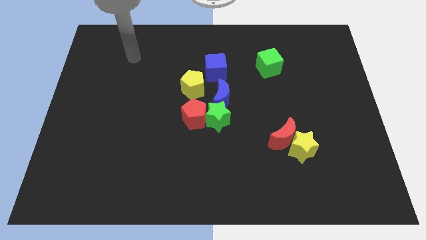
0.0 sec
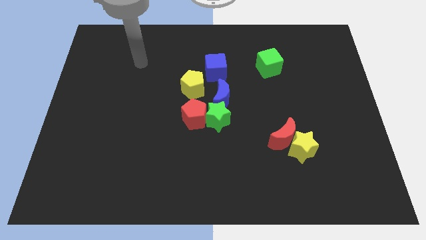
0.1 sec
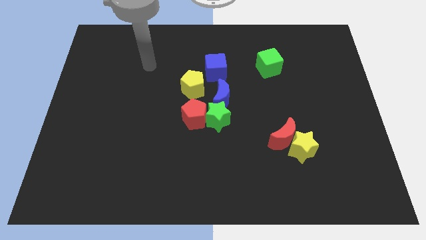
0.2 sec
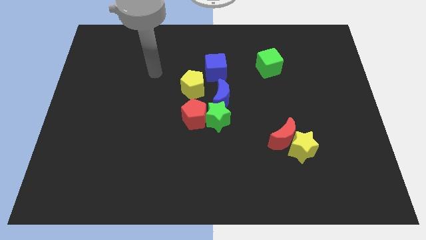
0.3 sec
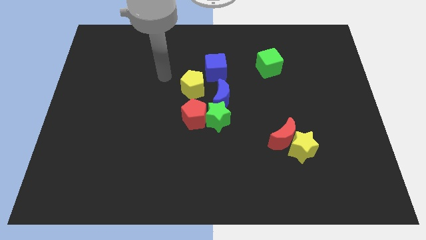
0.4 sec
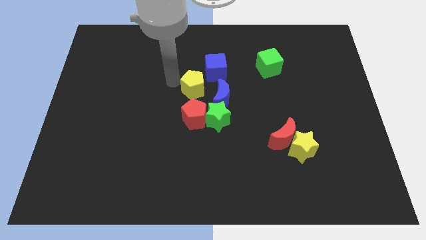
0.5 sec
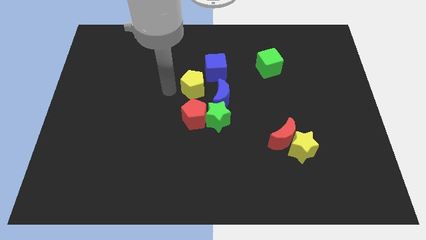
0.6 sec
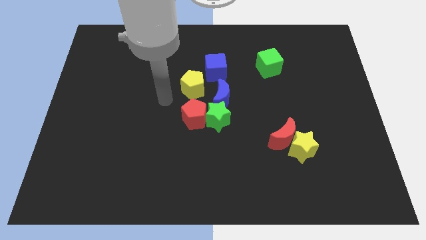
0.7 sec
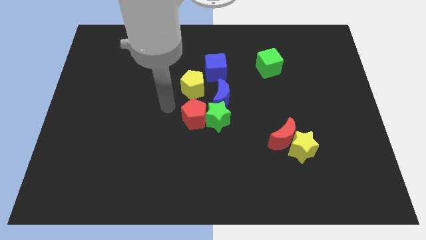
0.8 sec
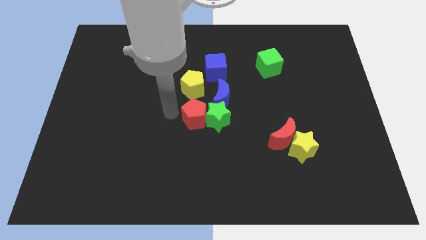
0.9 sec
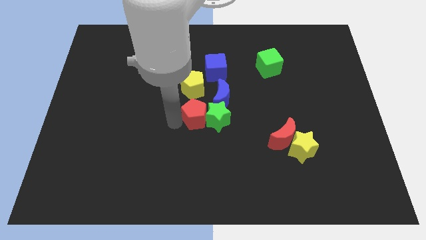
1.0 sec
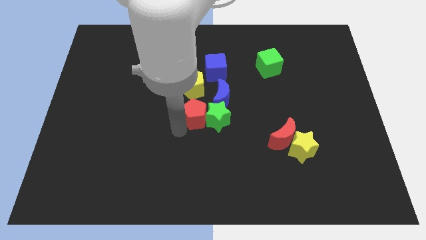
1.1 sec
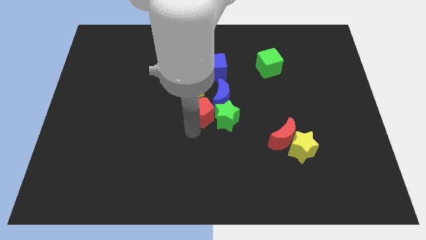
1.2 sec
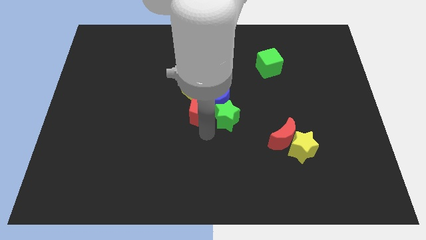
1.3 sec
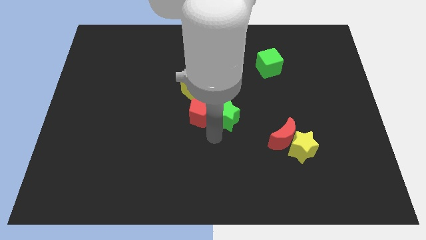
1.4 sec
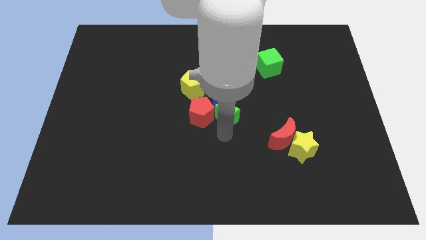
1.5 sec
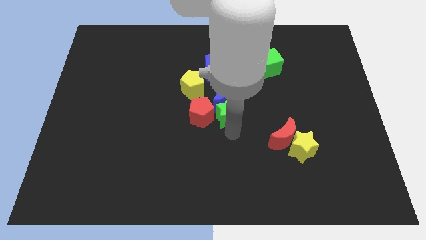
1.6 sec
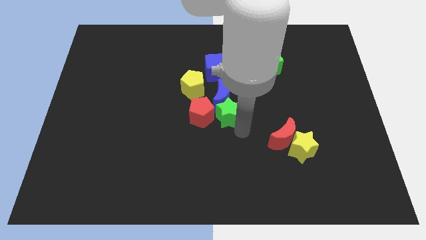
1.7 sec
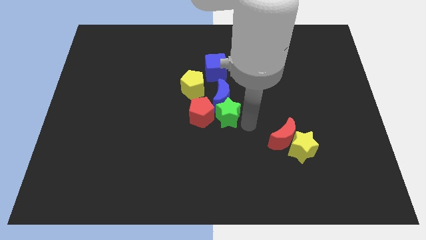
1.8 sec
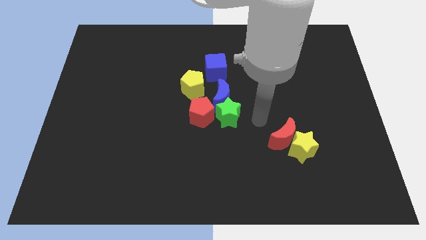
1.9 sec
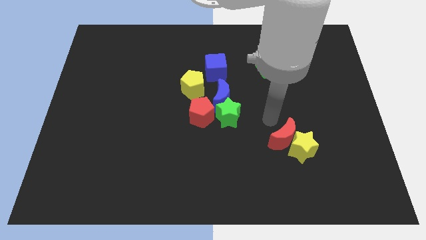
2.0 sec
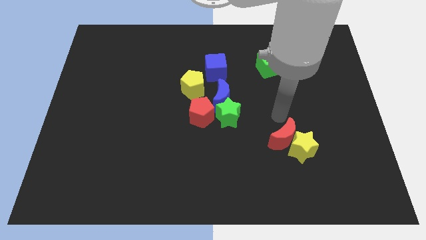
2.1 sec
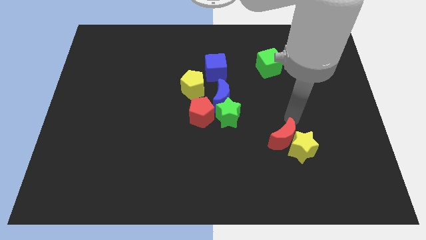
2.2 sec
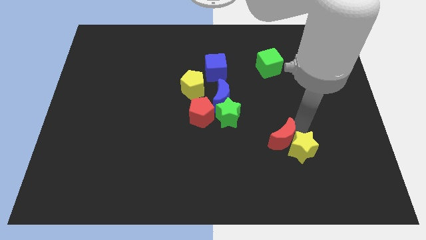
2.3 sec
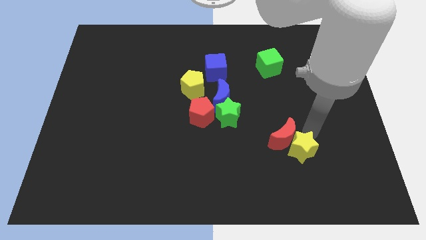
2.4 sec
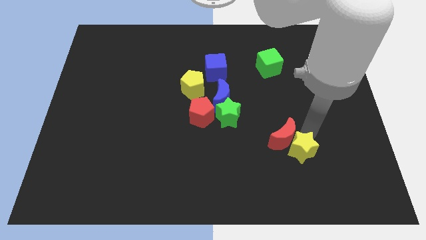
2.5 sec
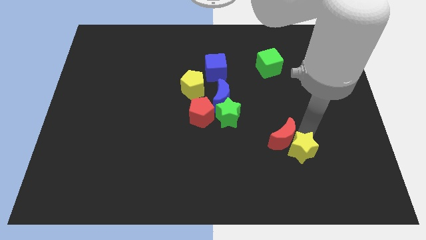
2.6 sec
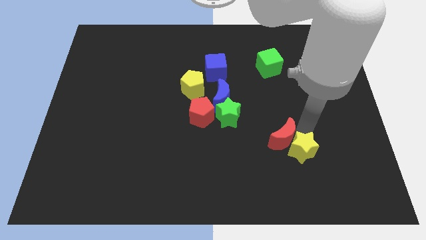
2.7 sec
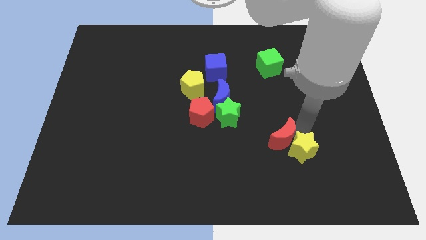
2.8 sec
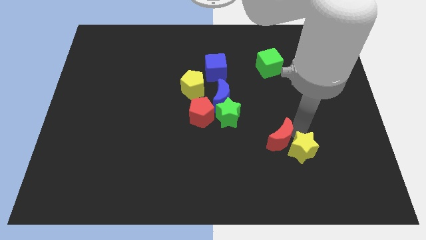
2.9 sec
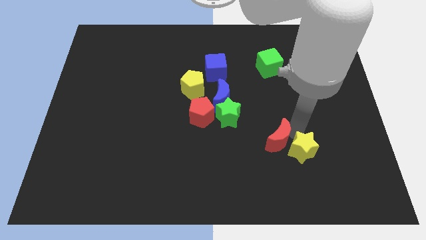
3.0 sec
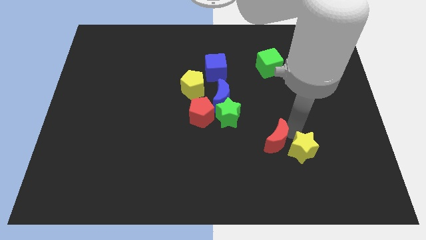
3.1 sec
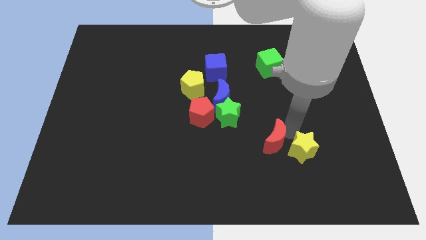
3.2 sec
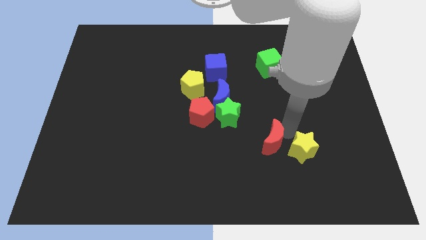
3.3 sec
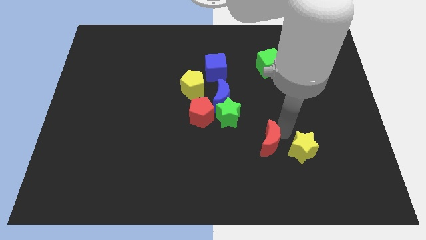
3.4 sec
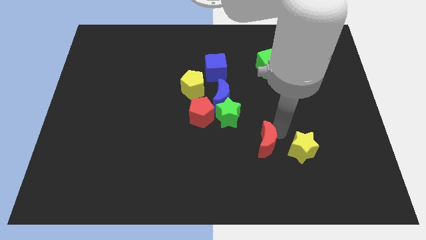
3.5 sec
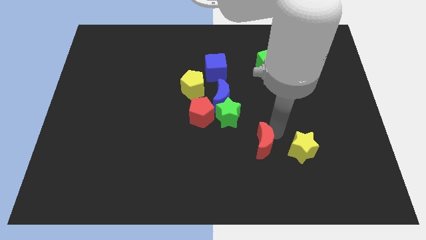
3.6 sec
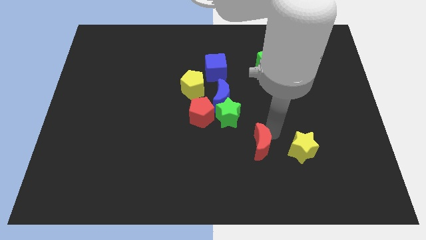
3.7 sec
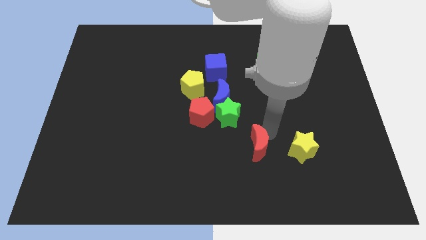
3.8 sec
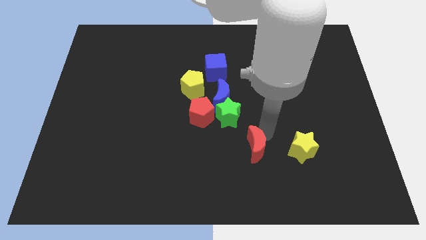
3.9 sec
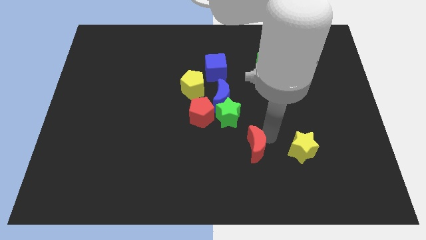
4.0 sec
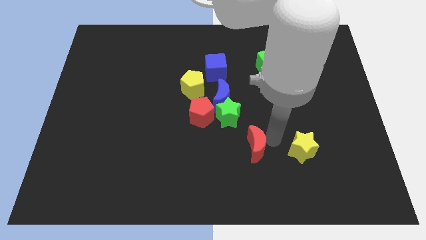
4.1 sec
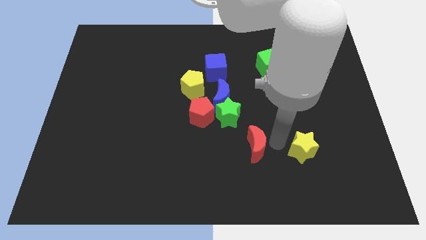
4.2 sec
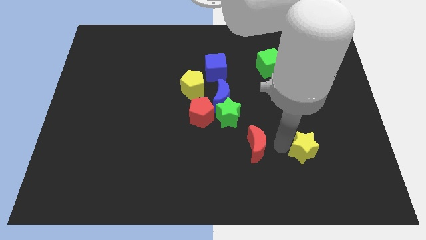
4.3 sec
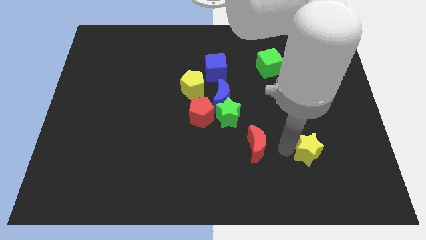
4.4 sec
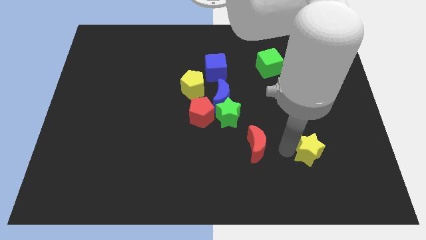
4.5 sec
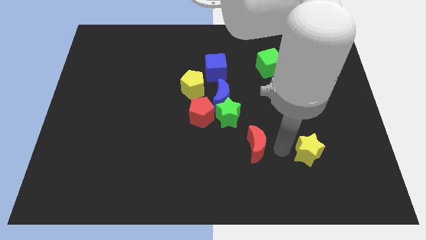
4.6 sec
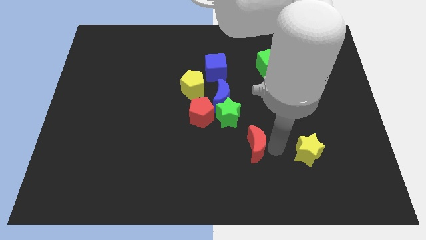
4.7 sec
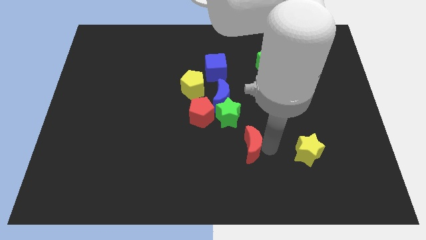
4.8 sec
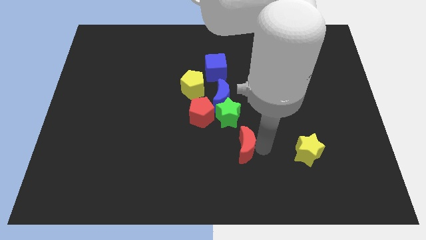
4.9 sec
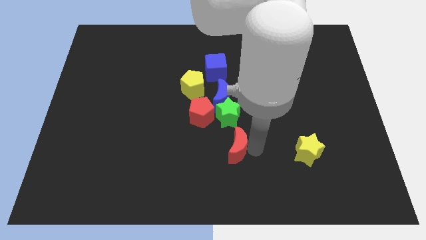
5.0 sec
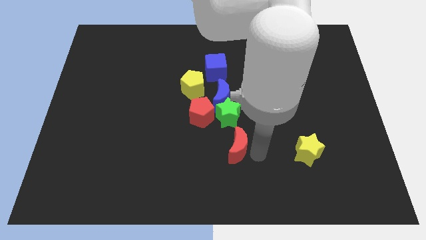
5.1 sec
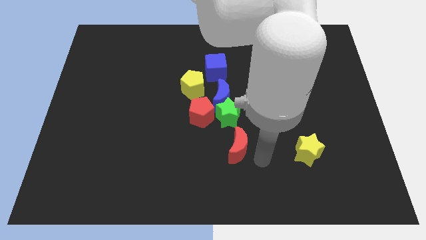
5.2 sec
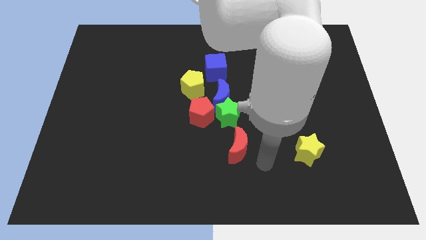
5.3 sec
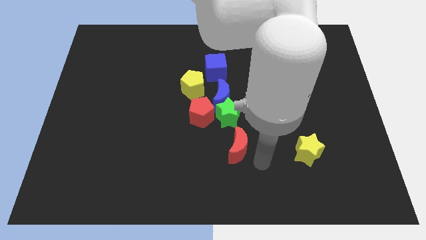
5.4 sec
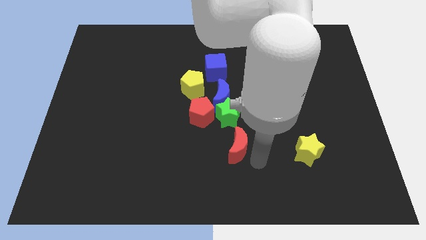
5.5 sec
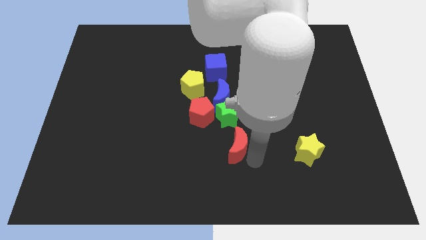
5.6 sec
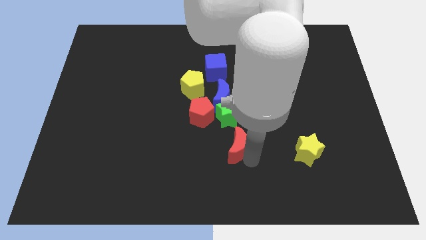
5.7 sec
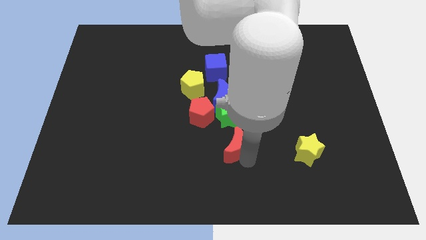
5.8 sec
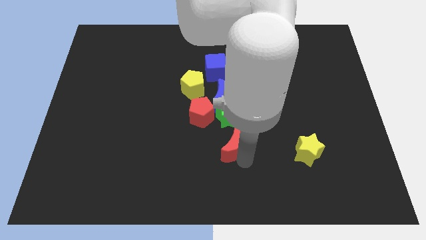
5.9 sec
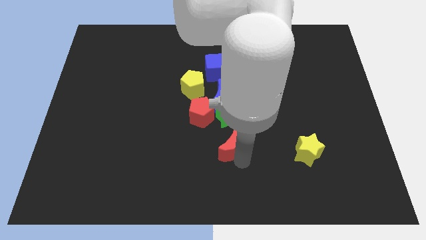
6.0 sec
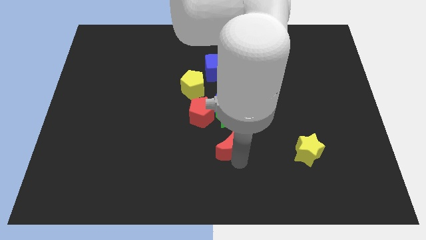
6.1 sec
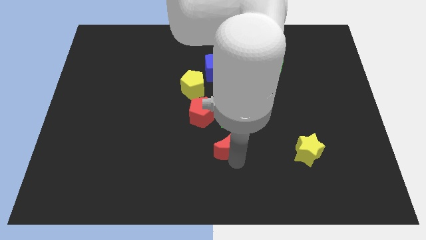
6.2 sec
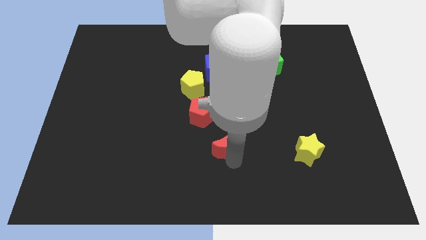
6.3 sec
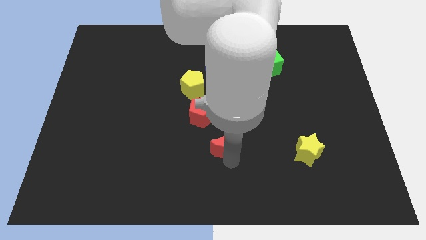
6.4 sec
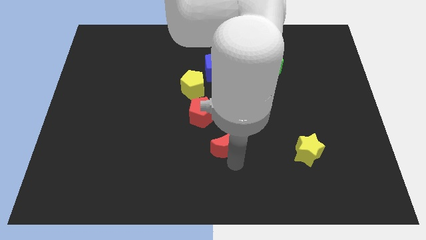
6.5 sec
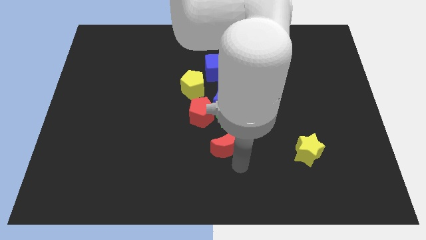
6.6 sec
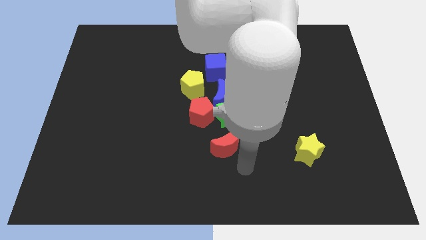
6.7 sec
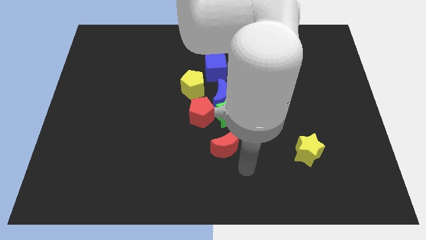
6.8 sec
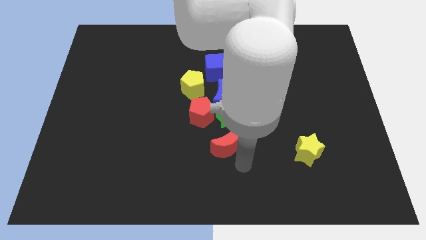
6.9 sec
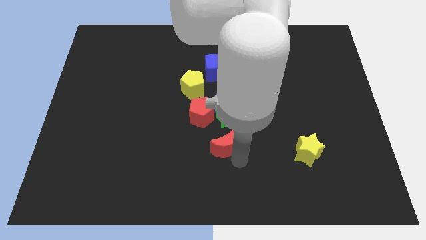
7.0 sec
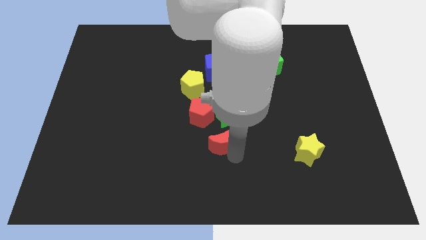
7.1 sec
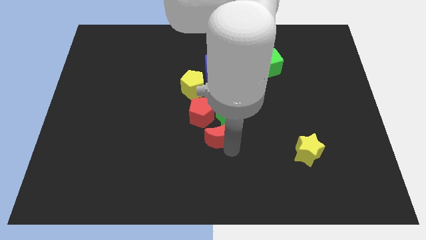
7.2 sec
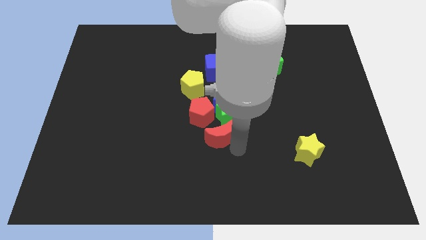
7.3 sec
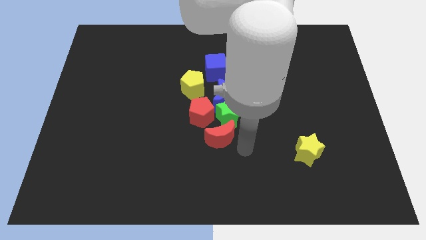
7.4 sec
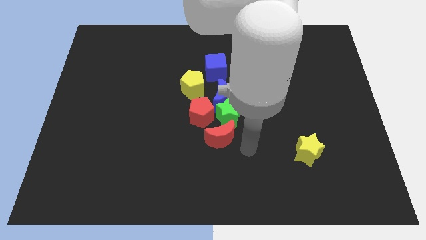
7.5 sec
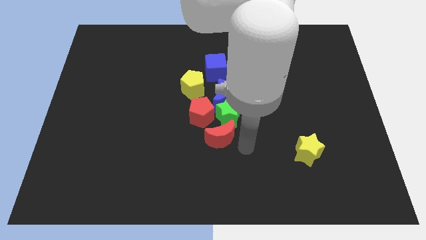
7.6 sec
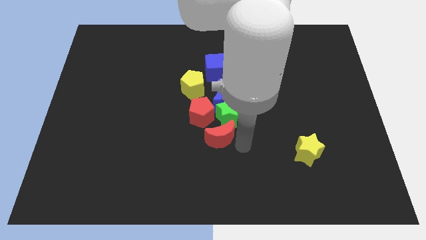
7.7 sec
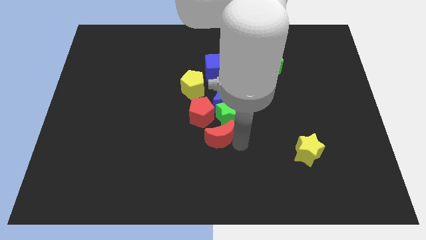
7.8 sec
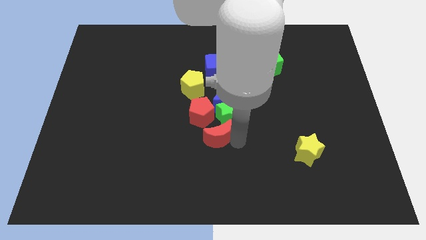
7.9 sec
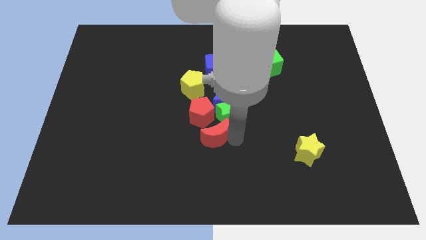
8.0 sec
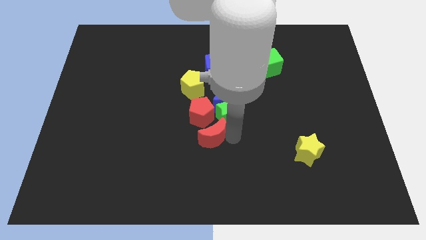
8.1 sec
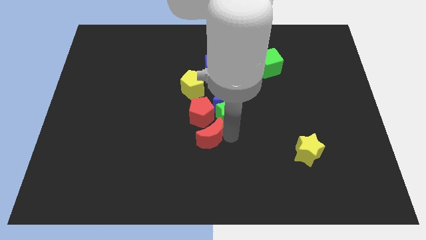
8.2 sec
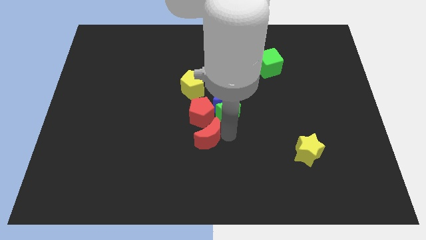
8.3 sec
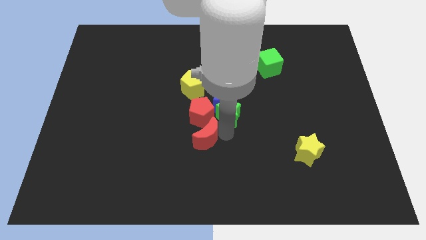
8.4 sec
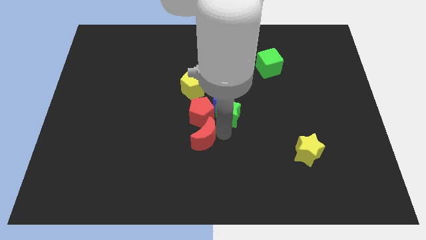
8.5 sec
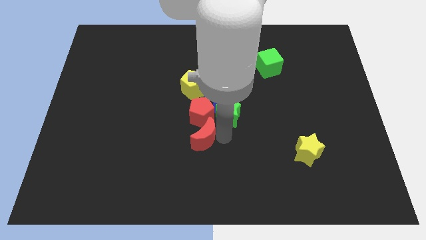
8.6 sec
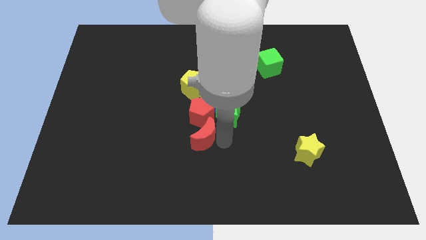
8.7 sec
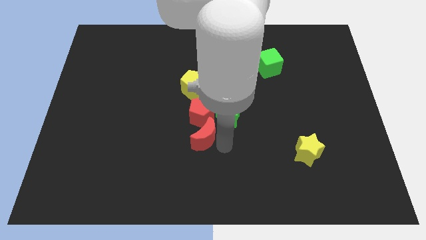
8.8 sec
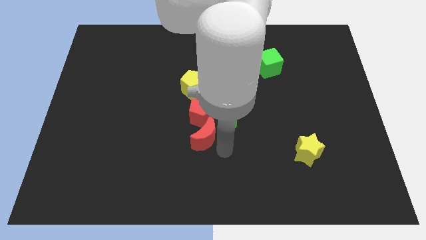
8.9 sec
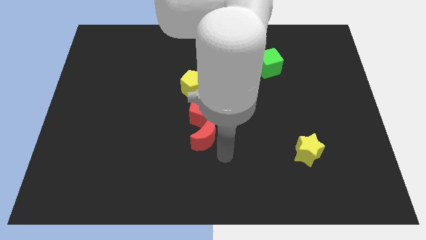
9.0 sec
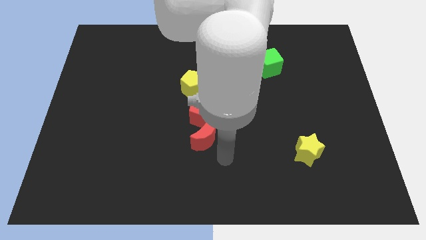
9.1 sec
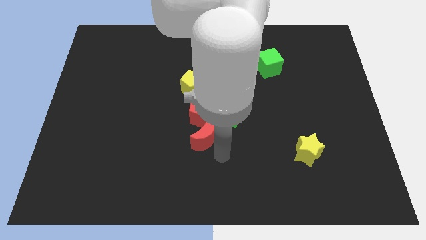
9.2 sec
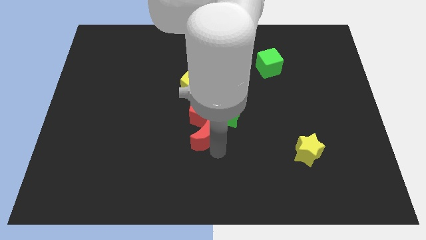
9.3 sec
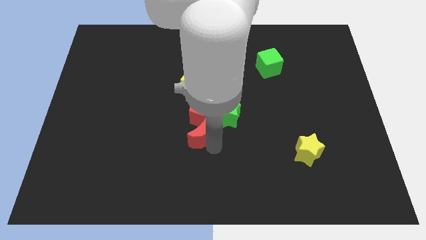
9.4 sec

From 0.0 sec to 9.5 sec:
slide the red moon next to the red pentagon
